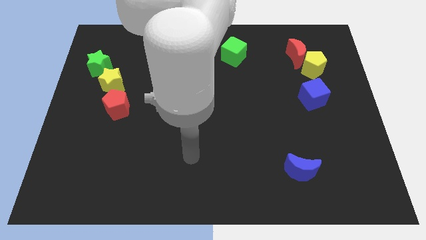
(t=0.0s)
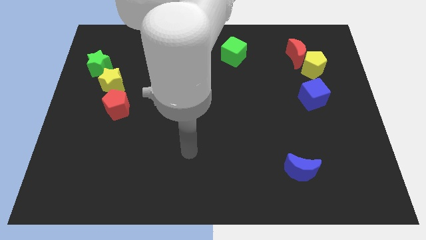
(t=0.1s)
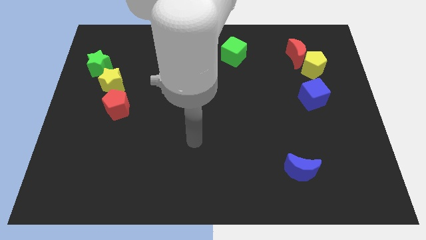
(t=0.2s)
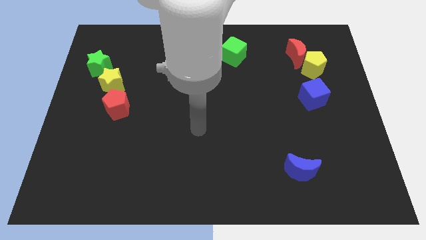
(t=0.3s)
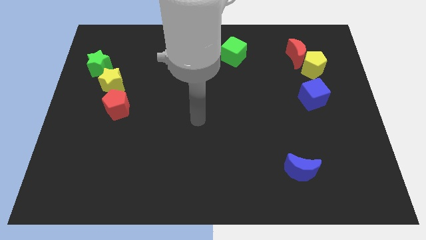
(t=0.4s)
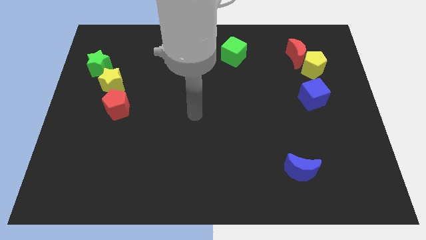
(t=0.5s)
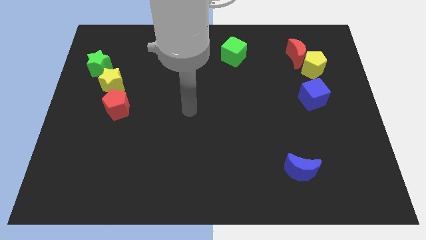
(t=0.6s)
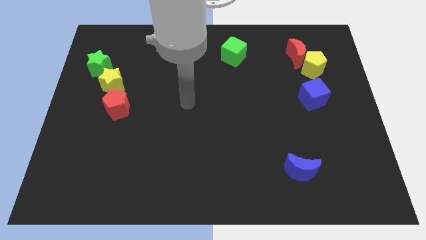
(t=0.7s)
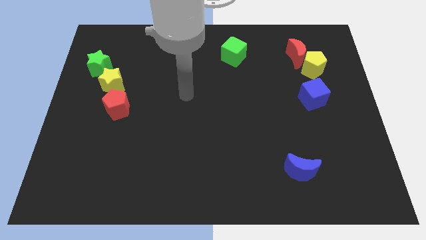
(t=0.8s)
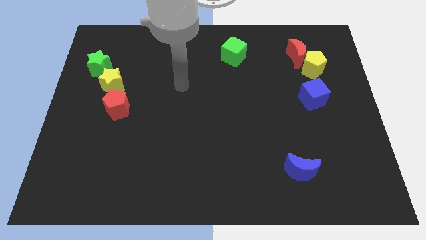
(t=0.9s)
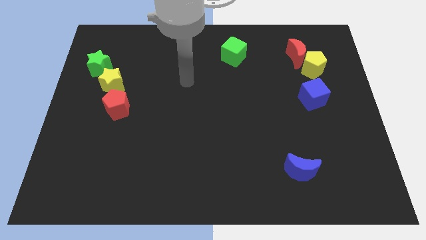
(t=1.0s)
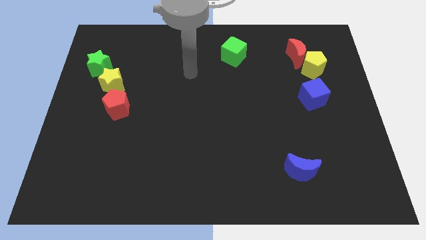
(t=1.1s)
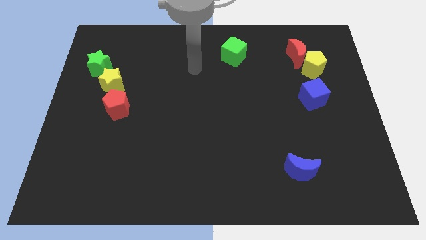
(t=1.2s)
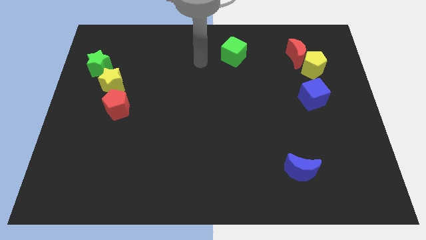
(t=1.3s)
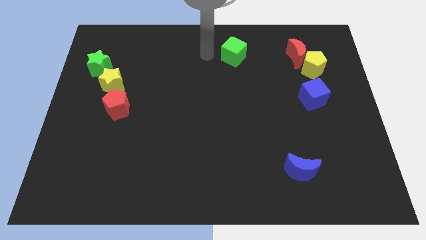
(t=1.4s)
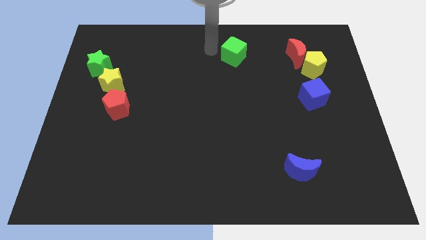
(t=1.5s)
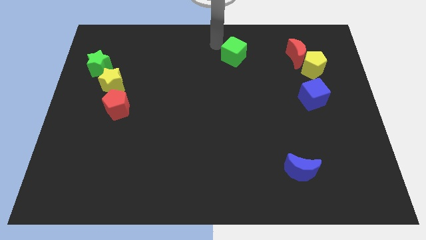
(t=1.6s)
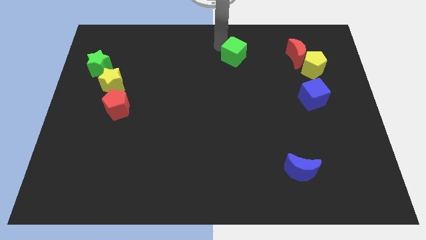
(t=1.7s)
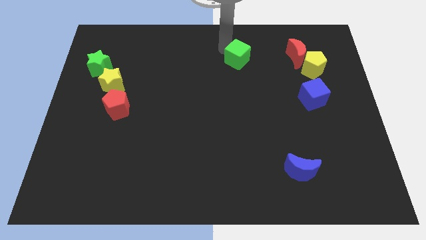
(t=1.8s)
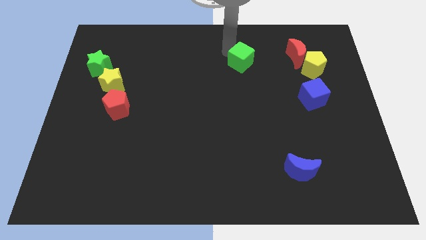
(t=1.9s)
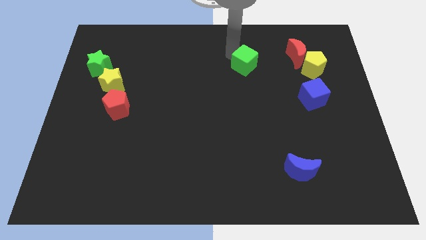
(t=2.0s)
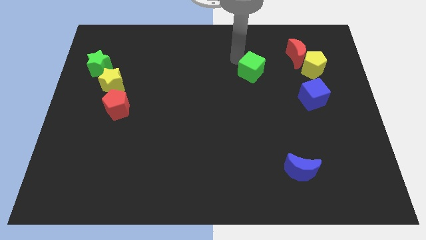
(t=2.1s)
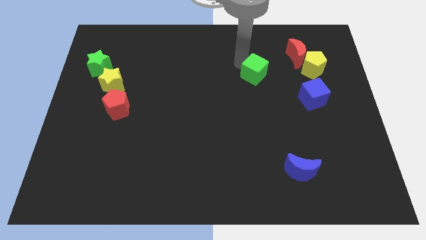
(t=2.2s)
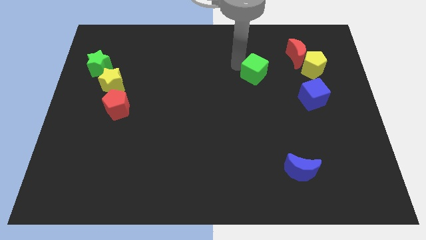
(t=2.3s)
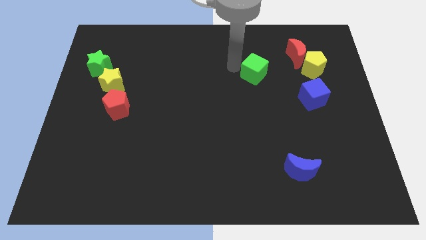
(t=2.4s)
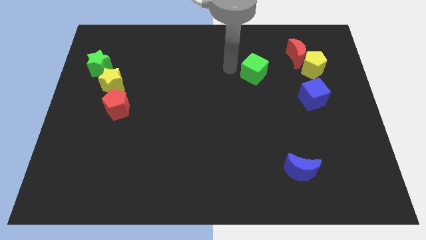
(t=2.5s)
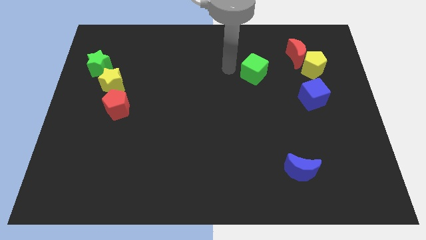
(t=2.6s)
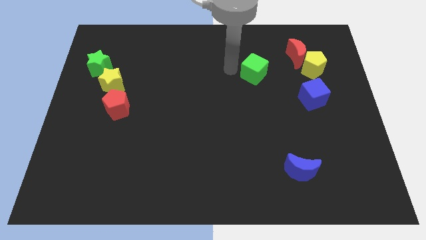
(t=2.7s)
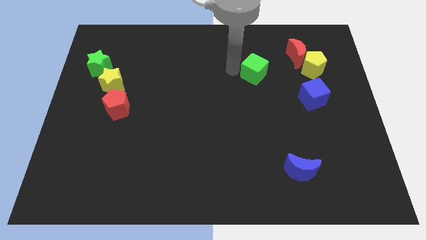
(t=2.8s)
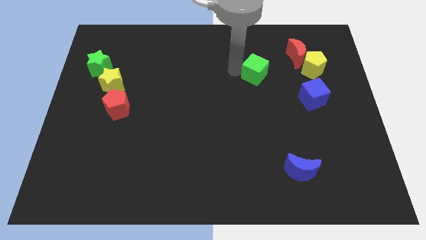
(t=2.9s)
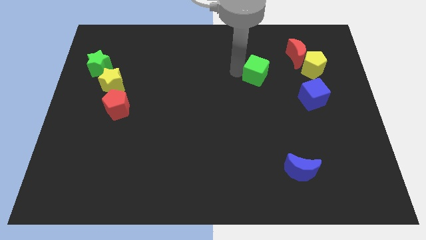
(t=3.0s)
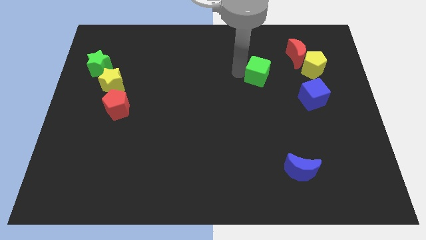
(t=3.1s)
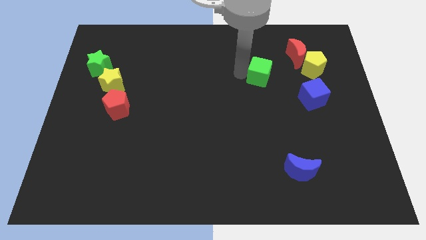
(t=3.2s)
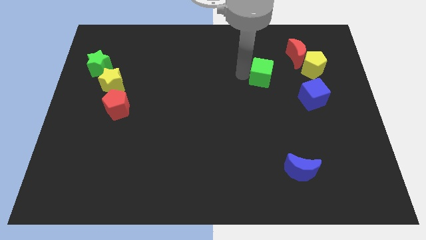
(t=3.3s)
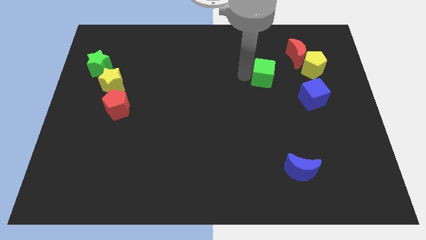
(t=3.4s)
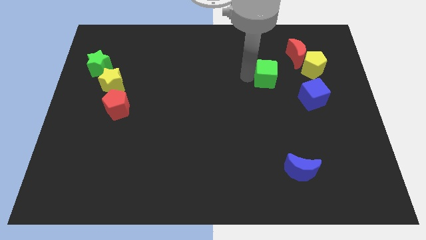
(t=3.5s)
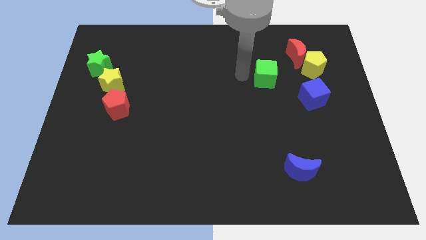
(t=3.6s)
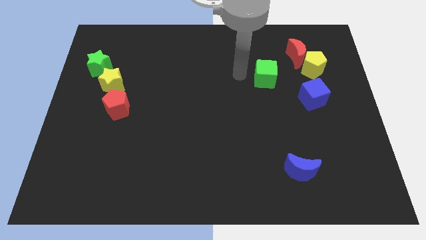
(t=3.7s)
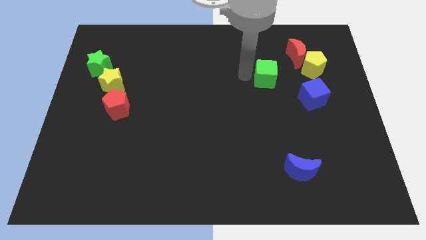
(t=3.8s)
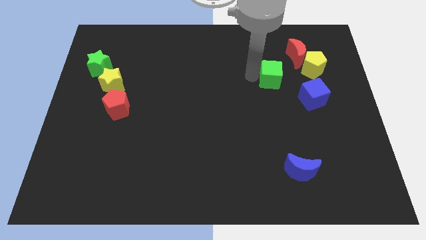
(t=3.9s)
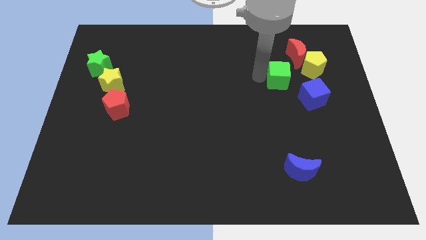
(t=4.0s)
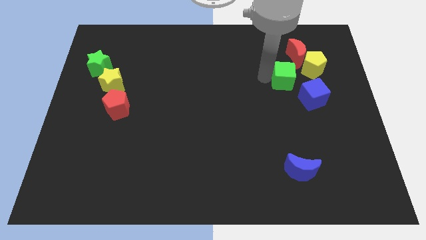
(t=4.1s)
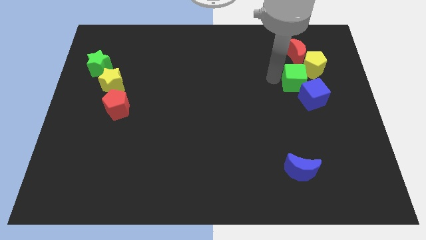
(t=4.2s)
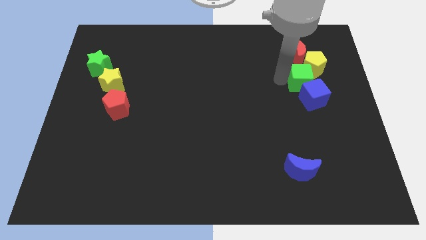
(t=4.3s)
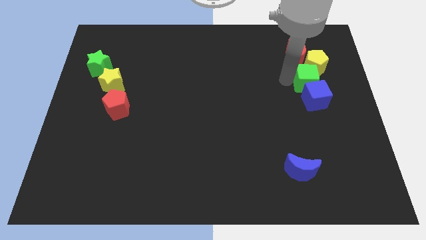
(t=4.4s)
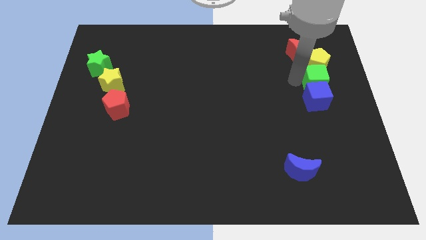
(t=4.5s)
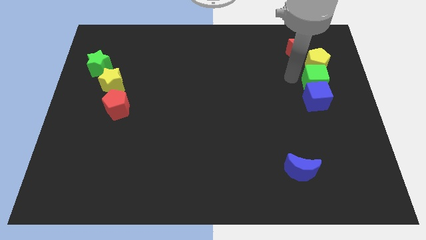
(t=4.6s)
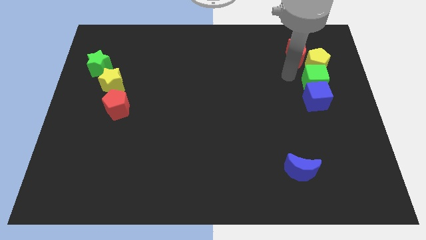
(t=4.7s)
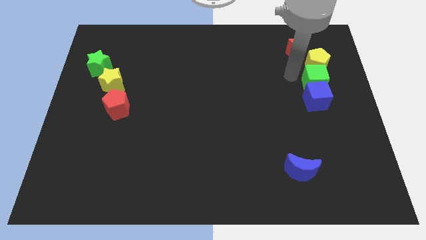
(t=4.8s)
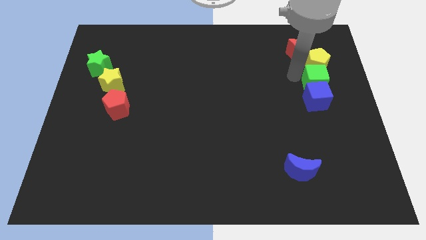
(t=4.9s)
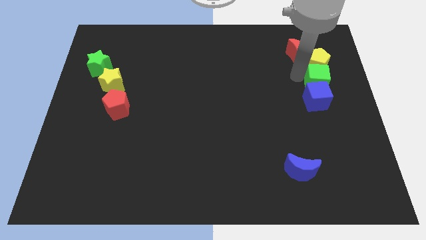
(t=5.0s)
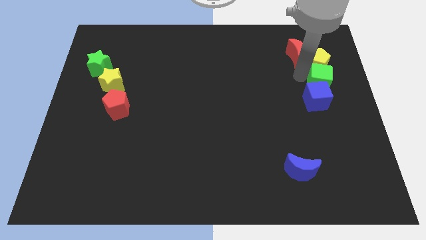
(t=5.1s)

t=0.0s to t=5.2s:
move the green cube to the right side

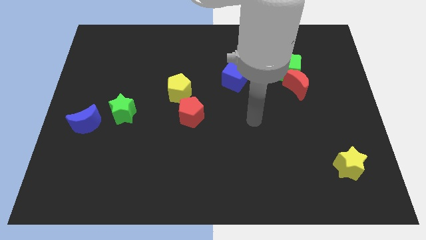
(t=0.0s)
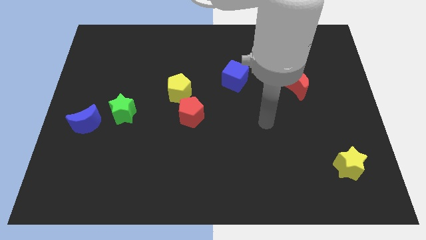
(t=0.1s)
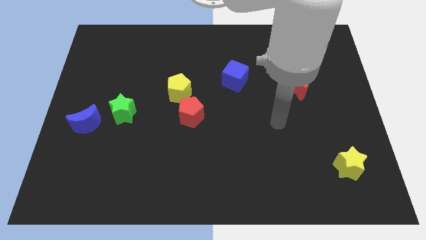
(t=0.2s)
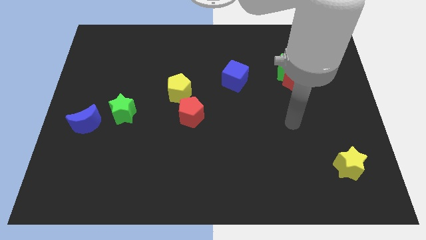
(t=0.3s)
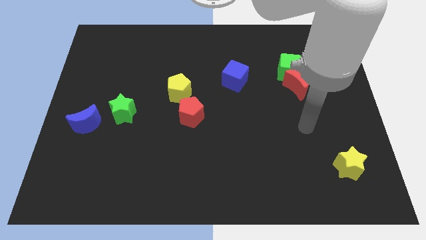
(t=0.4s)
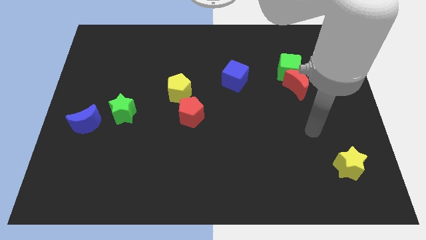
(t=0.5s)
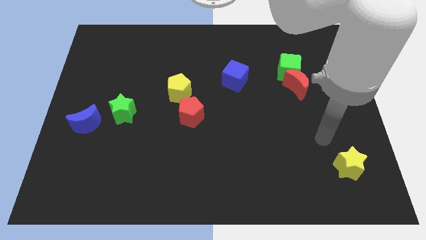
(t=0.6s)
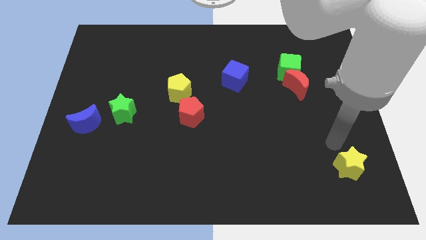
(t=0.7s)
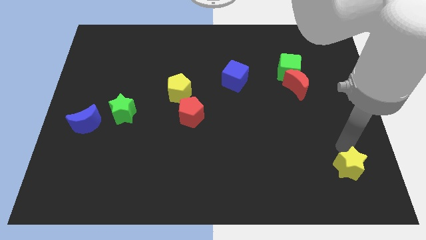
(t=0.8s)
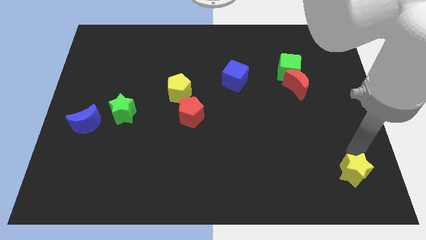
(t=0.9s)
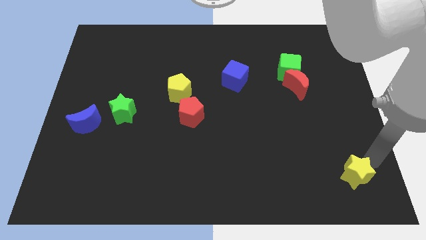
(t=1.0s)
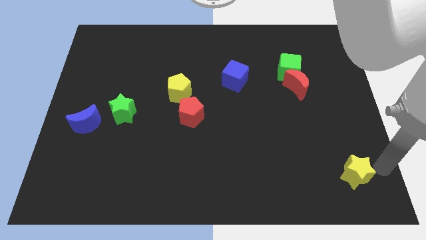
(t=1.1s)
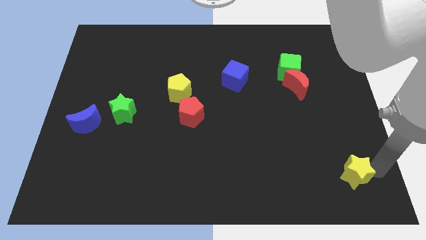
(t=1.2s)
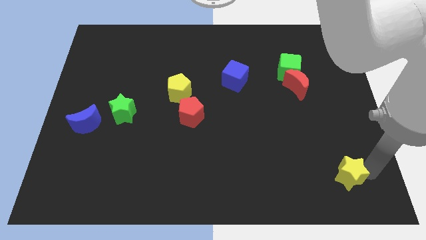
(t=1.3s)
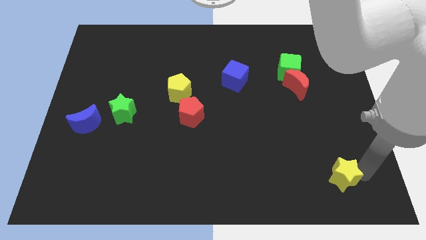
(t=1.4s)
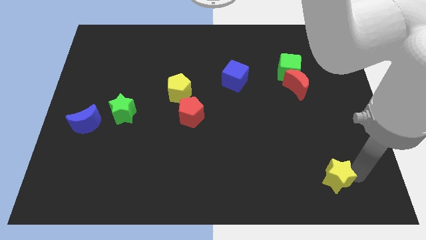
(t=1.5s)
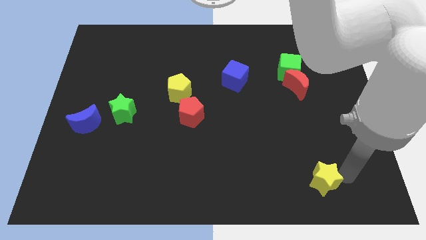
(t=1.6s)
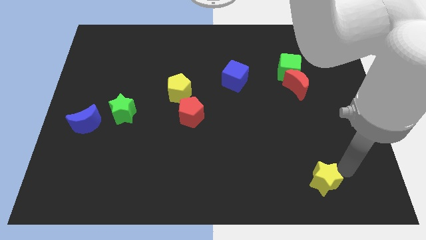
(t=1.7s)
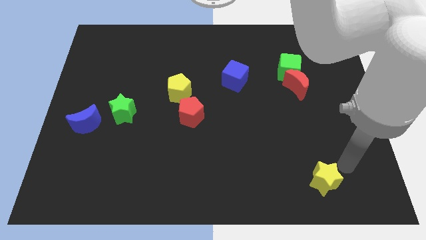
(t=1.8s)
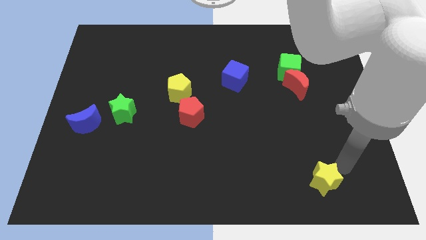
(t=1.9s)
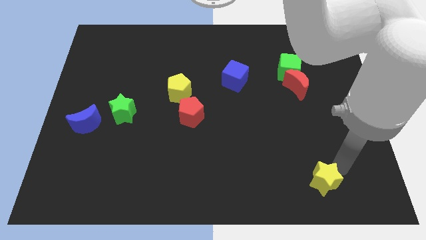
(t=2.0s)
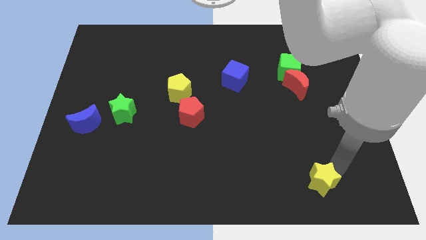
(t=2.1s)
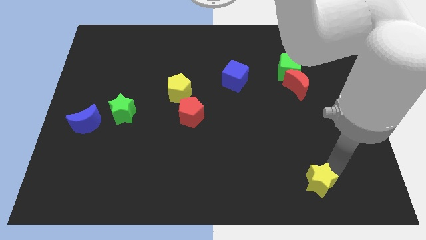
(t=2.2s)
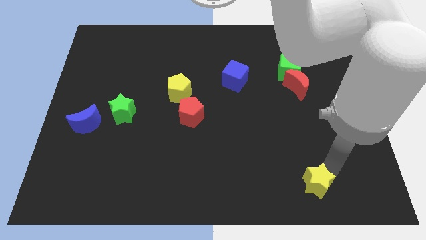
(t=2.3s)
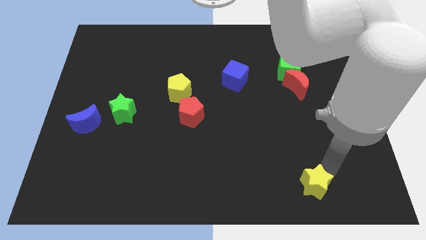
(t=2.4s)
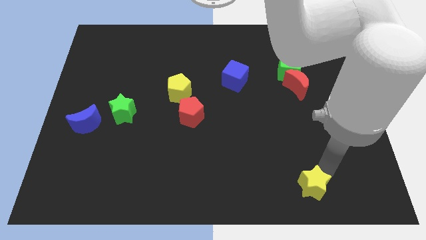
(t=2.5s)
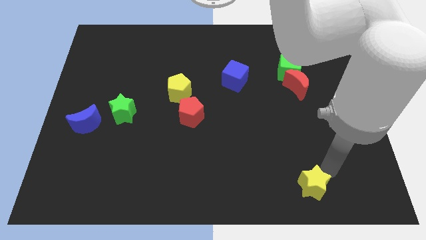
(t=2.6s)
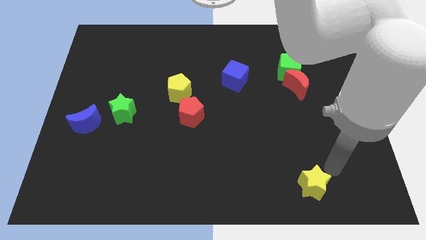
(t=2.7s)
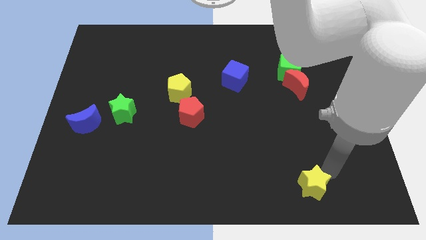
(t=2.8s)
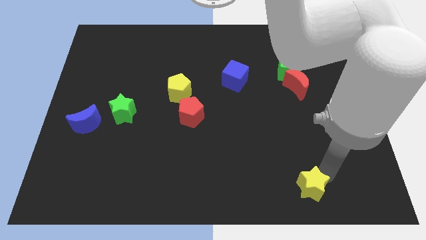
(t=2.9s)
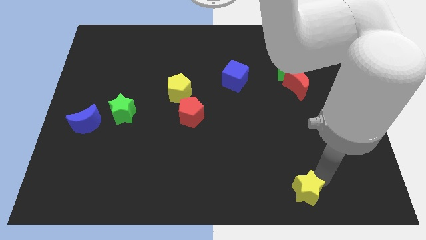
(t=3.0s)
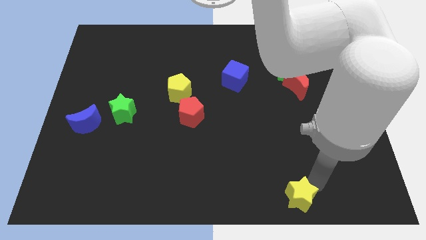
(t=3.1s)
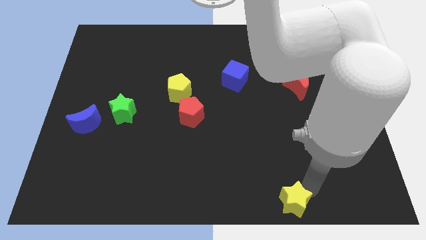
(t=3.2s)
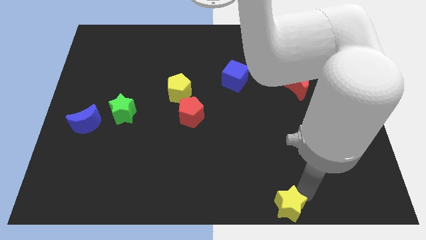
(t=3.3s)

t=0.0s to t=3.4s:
push the yellow star to the bottom
